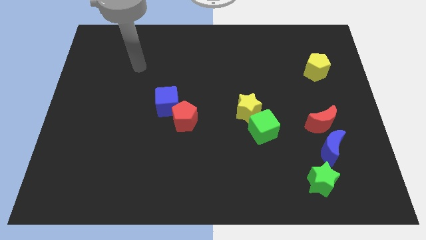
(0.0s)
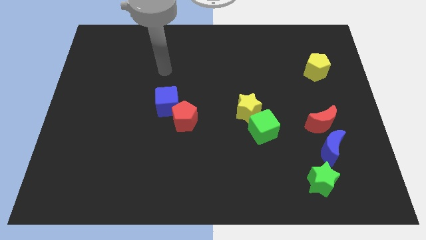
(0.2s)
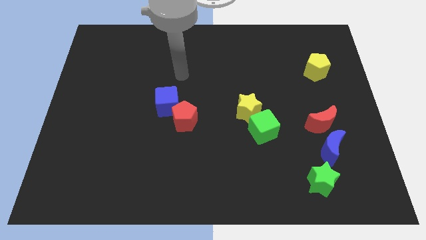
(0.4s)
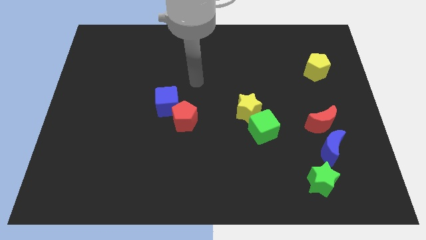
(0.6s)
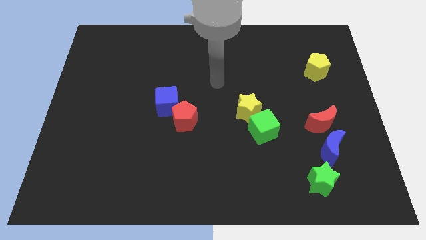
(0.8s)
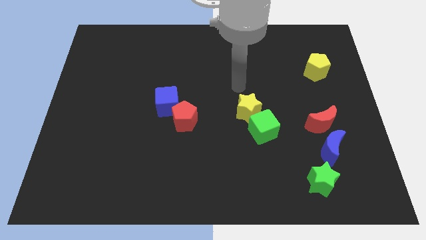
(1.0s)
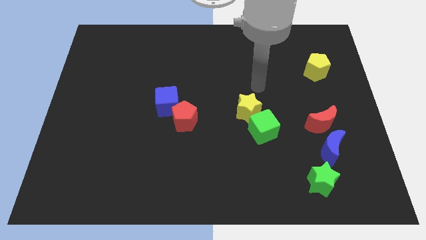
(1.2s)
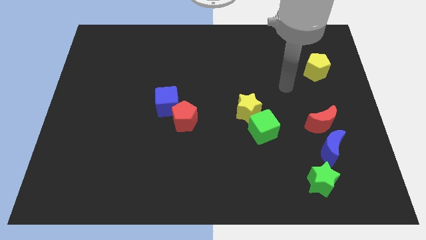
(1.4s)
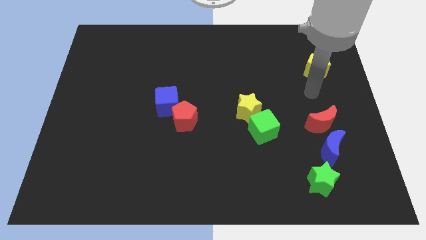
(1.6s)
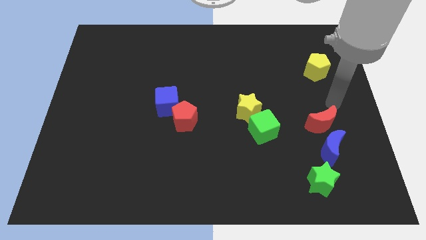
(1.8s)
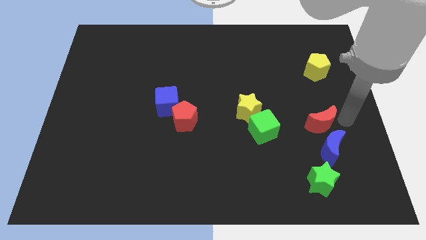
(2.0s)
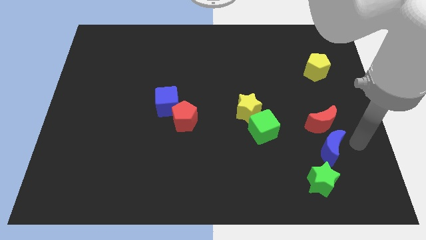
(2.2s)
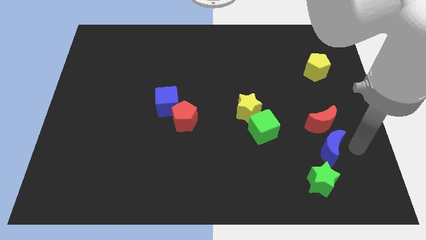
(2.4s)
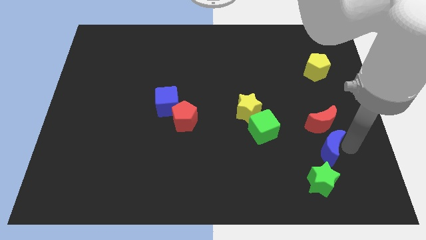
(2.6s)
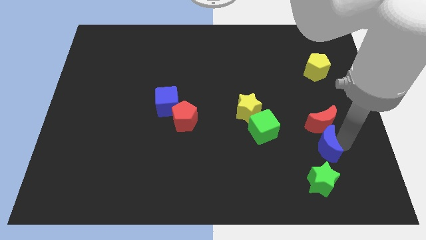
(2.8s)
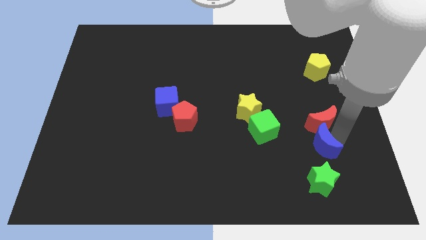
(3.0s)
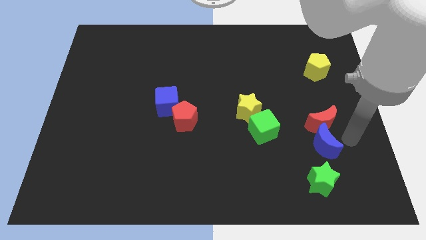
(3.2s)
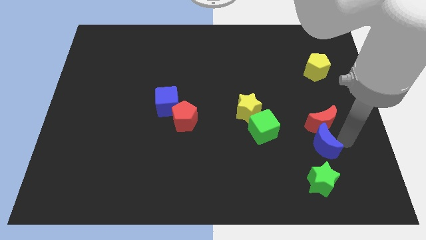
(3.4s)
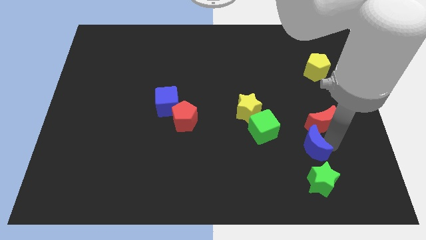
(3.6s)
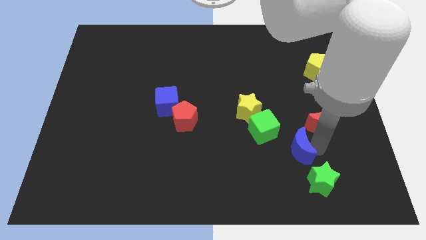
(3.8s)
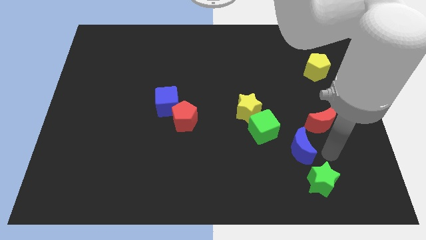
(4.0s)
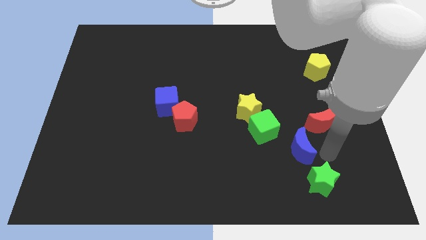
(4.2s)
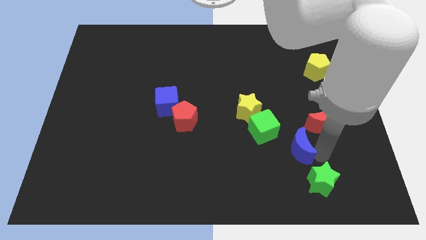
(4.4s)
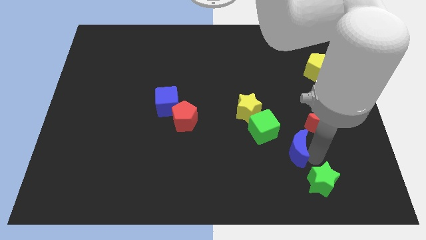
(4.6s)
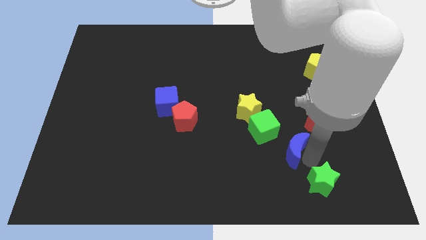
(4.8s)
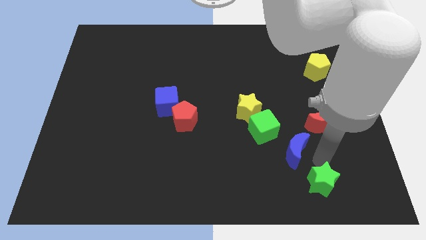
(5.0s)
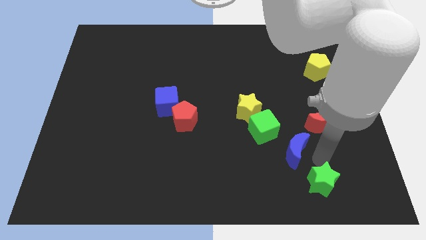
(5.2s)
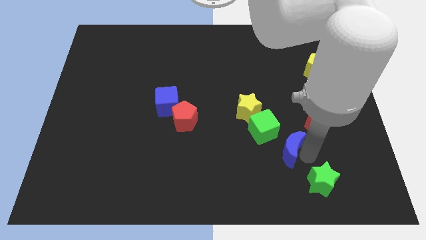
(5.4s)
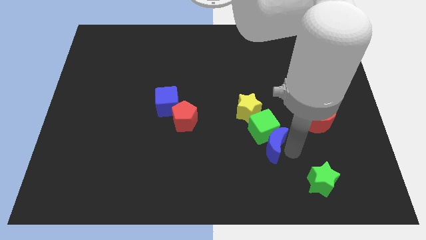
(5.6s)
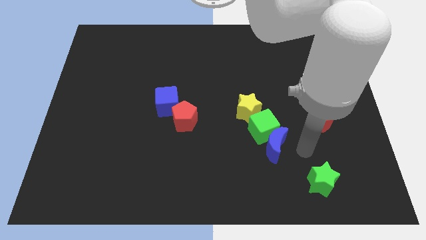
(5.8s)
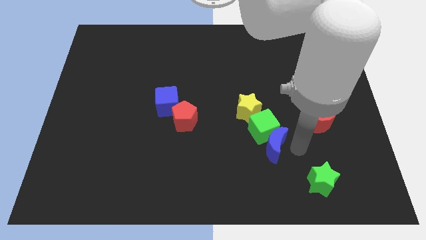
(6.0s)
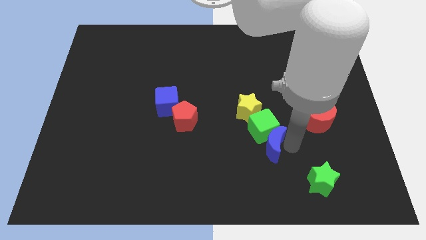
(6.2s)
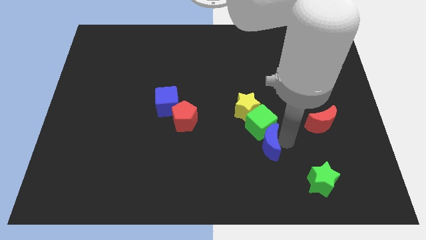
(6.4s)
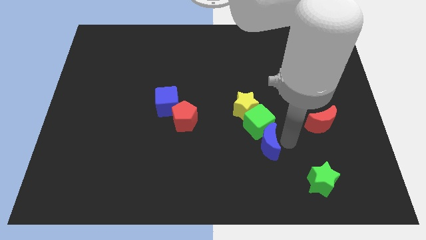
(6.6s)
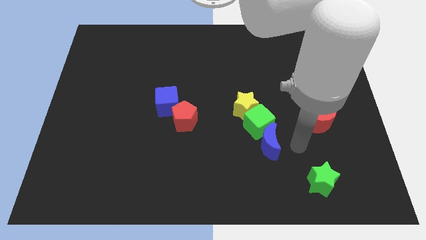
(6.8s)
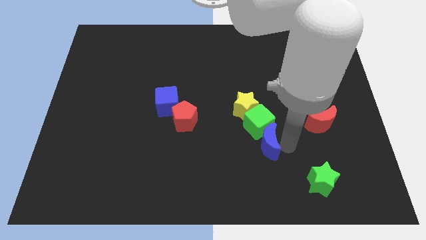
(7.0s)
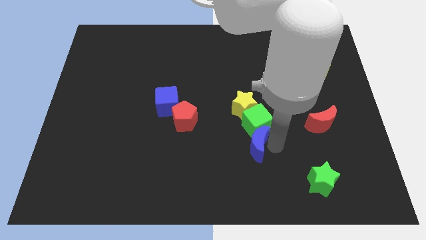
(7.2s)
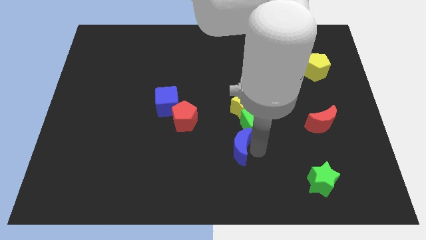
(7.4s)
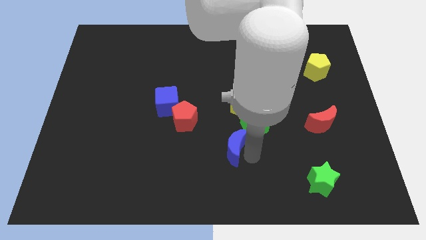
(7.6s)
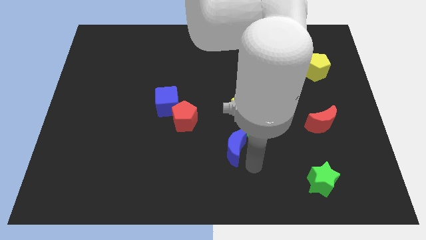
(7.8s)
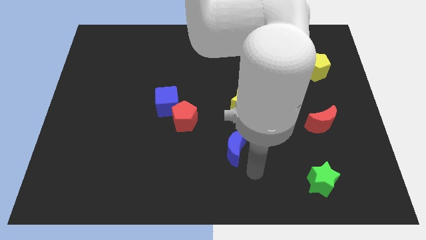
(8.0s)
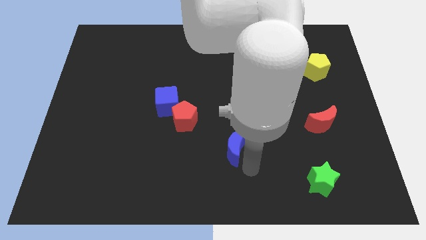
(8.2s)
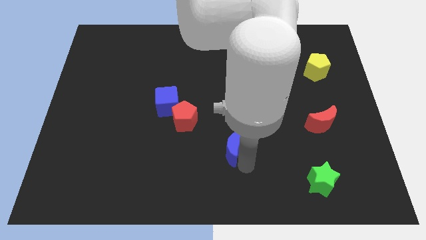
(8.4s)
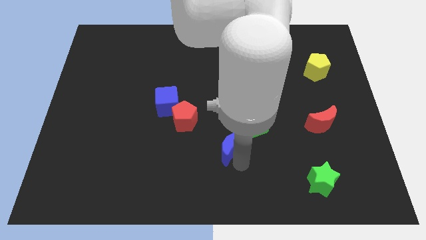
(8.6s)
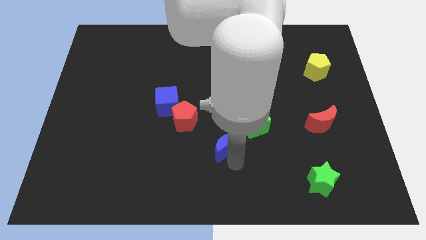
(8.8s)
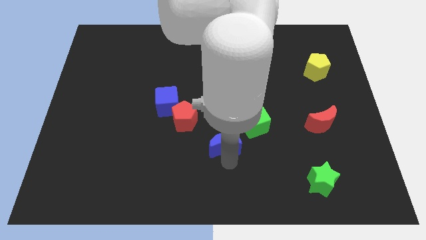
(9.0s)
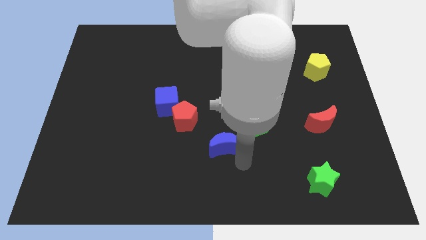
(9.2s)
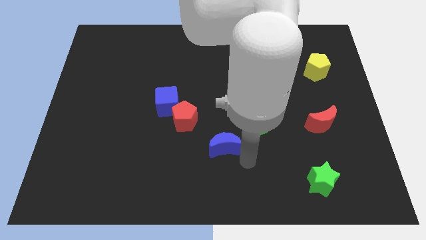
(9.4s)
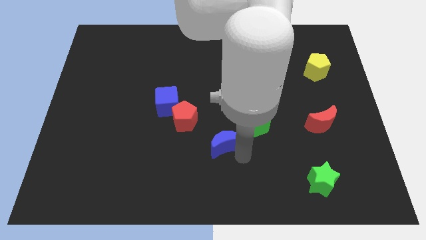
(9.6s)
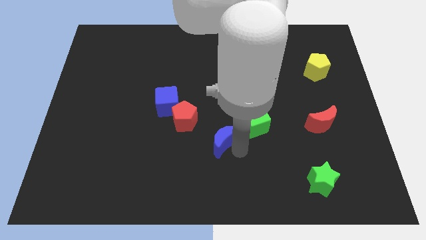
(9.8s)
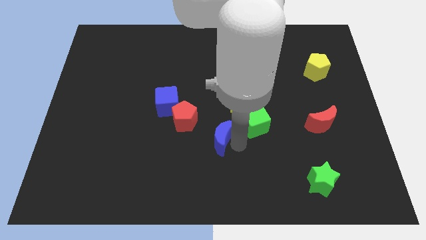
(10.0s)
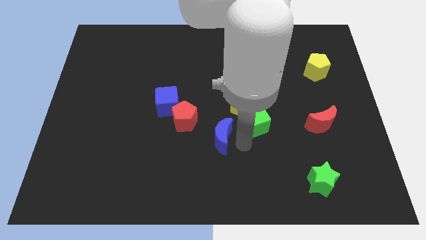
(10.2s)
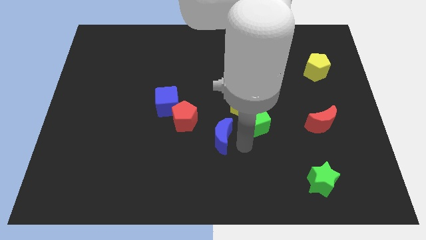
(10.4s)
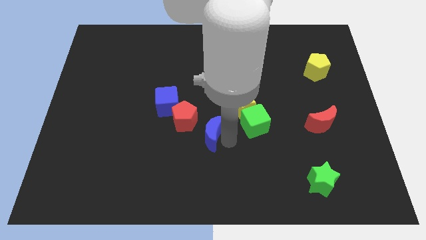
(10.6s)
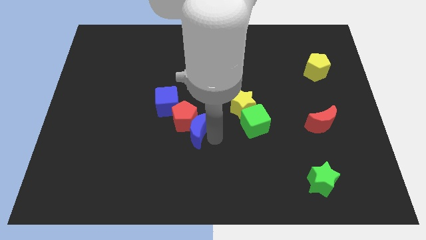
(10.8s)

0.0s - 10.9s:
slide the blue moon close to the red pentagon

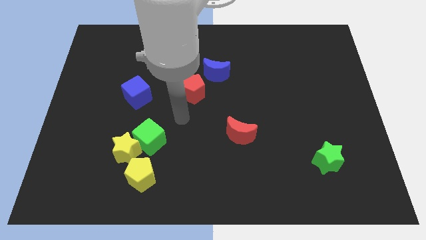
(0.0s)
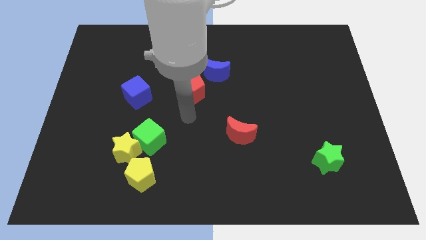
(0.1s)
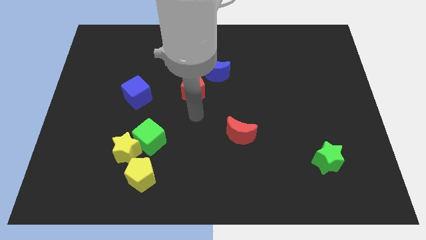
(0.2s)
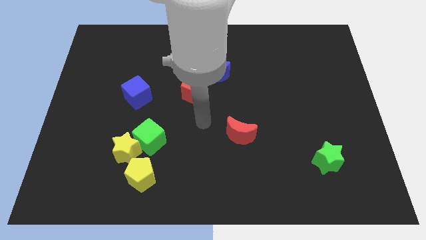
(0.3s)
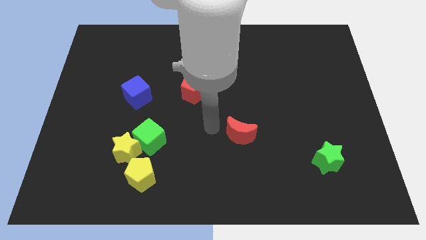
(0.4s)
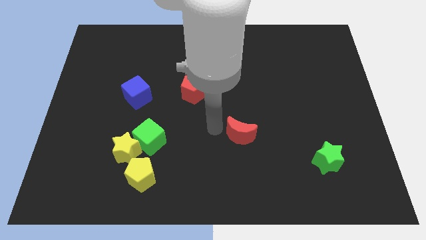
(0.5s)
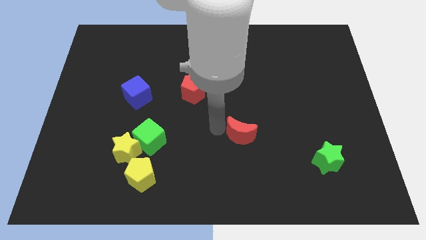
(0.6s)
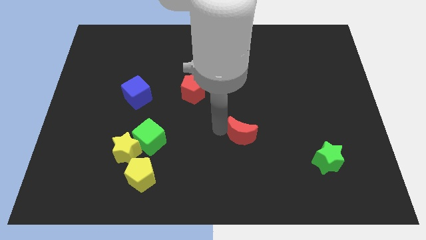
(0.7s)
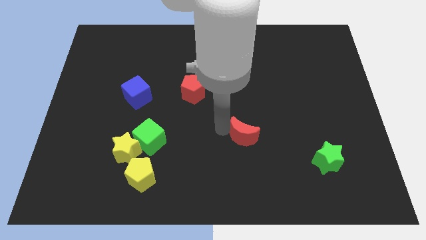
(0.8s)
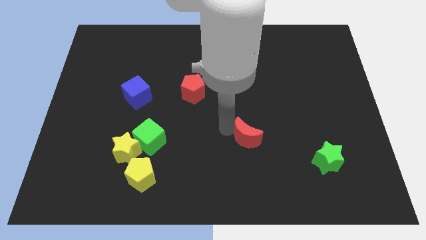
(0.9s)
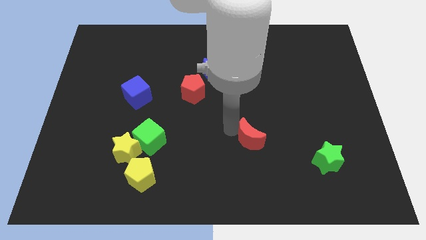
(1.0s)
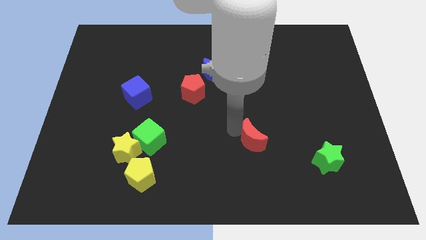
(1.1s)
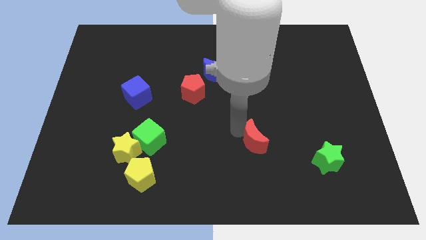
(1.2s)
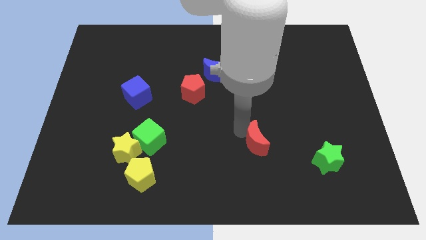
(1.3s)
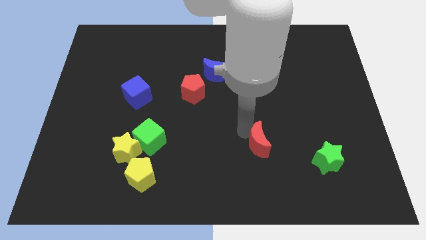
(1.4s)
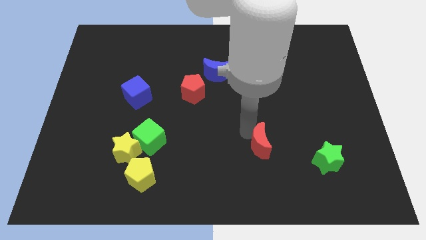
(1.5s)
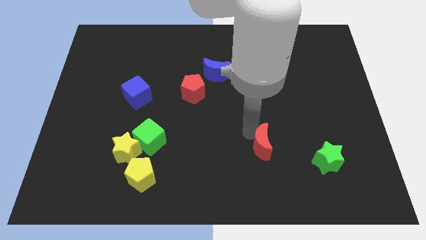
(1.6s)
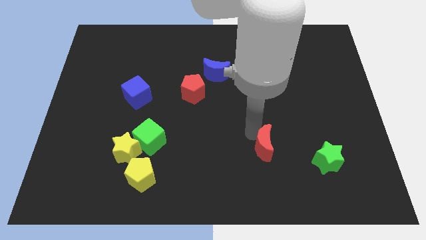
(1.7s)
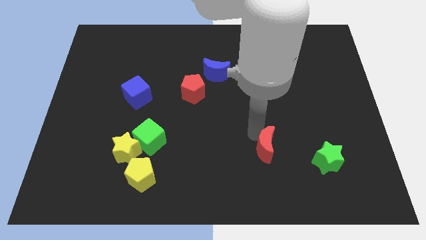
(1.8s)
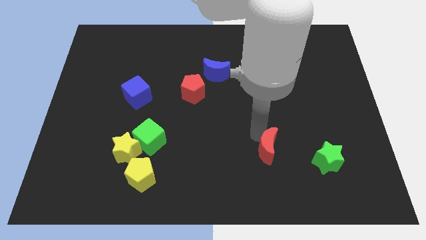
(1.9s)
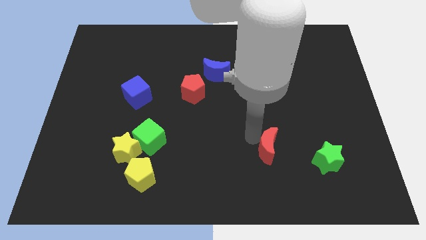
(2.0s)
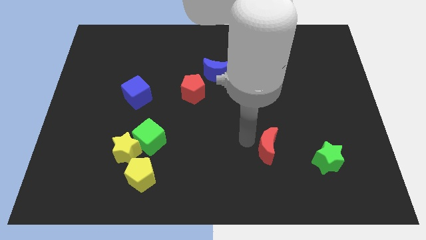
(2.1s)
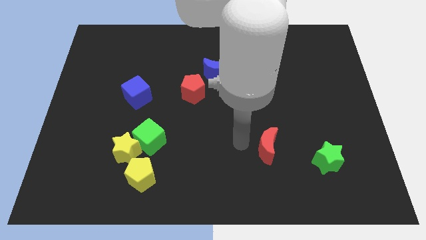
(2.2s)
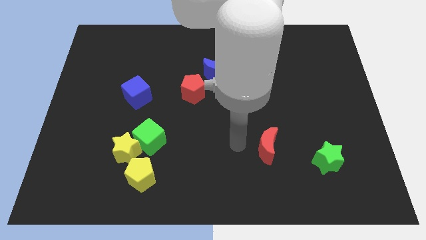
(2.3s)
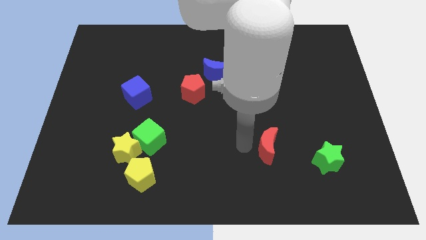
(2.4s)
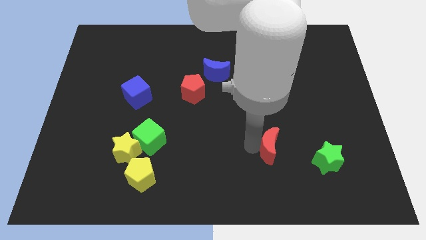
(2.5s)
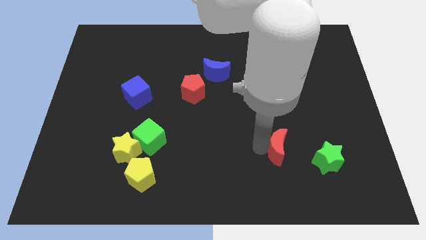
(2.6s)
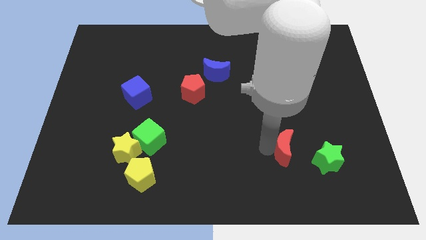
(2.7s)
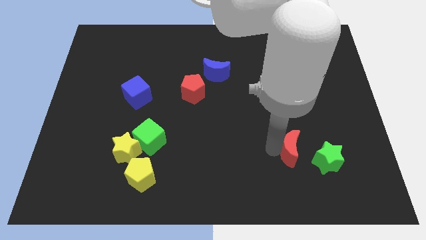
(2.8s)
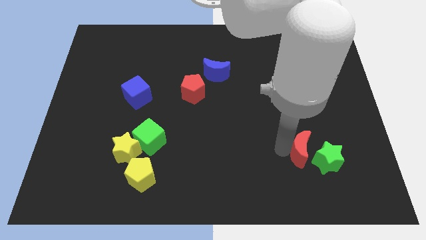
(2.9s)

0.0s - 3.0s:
slide the red moon towards the green star
